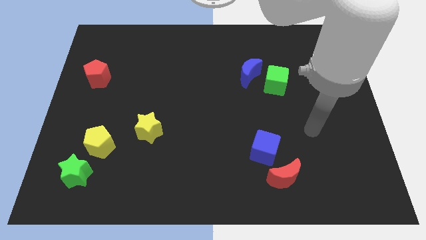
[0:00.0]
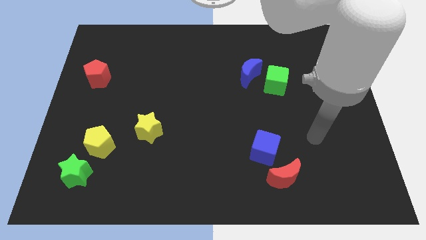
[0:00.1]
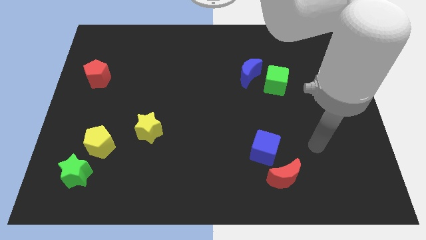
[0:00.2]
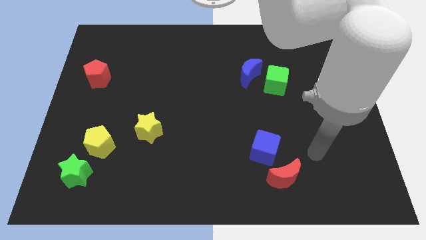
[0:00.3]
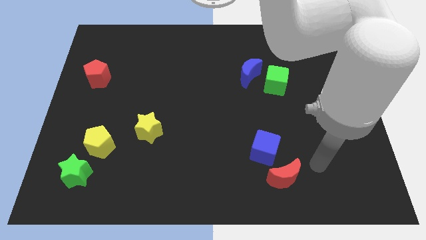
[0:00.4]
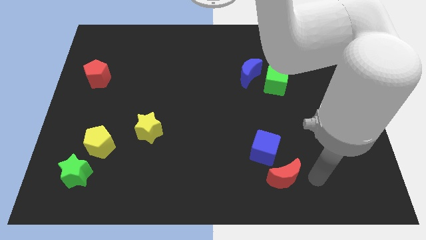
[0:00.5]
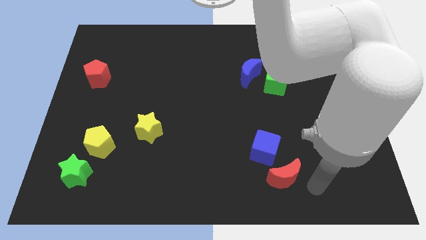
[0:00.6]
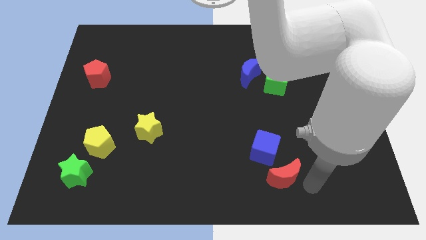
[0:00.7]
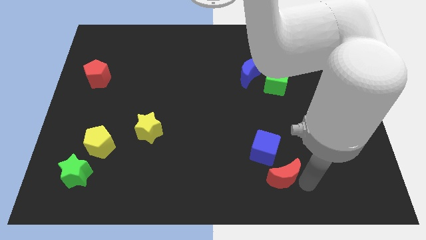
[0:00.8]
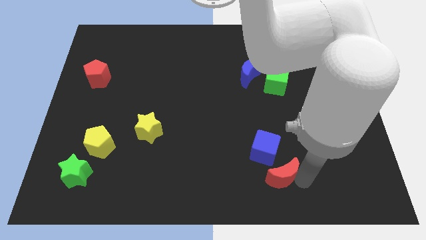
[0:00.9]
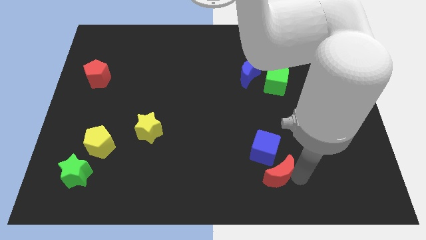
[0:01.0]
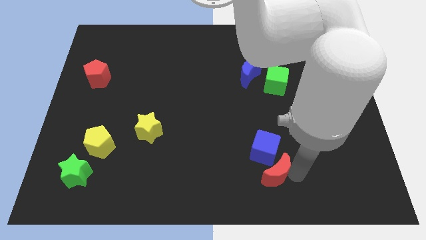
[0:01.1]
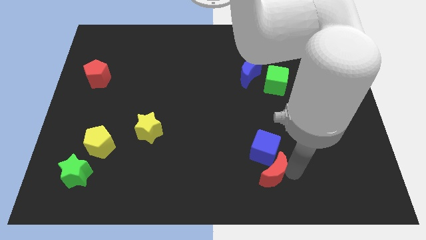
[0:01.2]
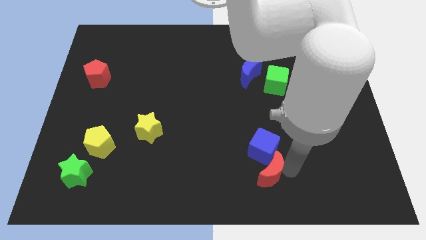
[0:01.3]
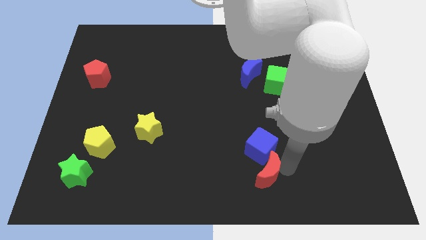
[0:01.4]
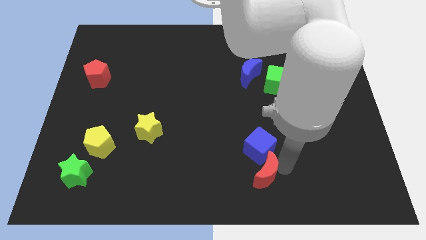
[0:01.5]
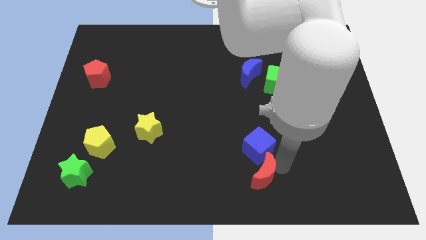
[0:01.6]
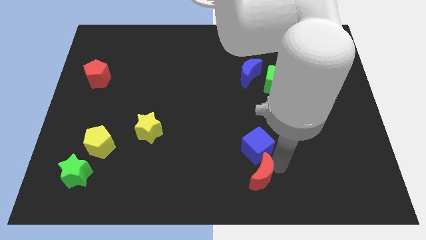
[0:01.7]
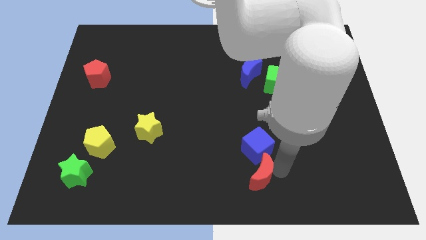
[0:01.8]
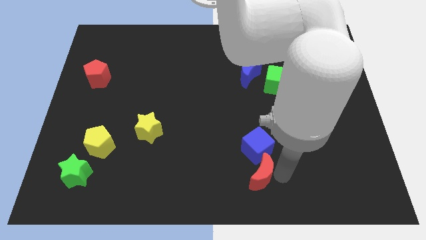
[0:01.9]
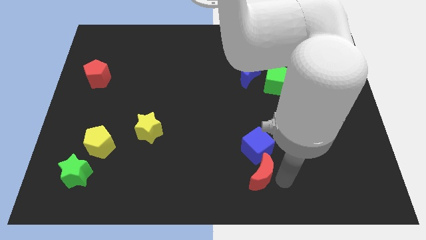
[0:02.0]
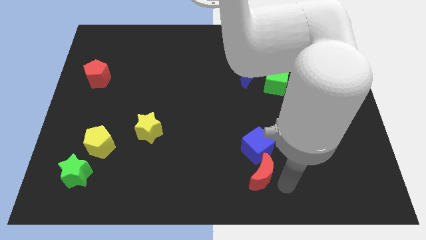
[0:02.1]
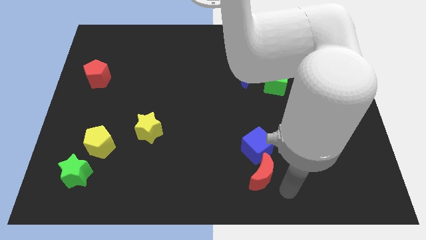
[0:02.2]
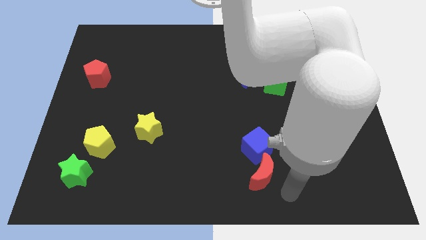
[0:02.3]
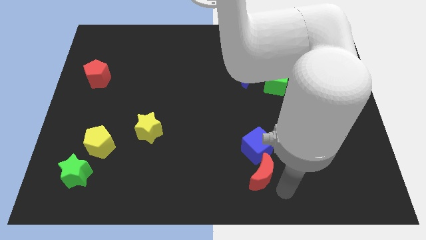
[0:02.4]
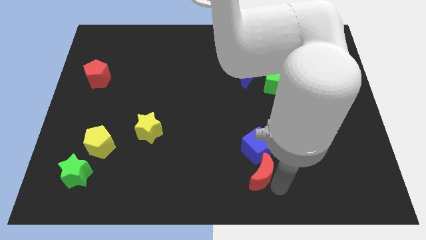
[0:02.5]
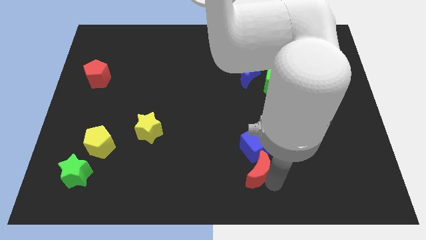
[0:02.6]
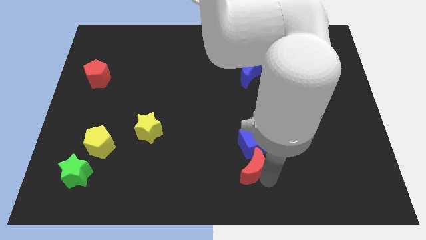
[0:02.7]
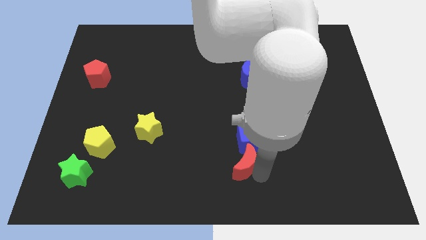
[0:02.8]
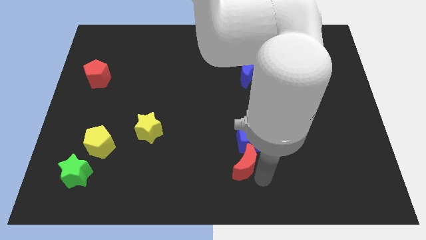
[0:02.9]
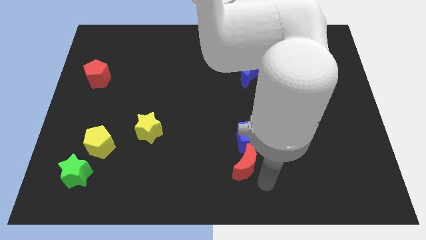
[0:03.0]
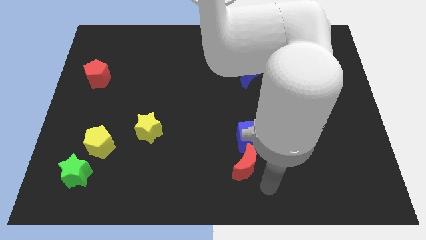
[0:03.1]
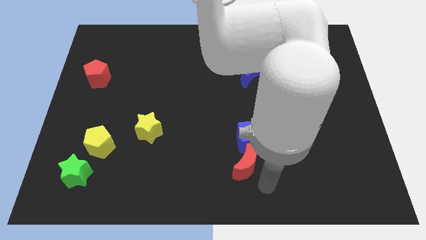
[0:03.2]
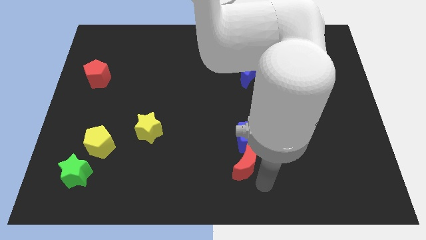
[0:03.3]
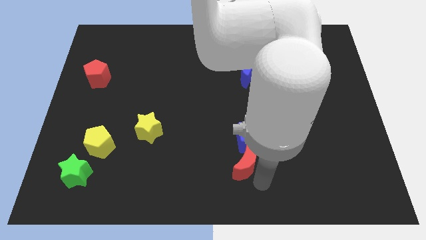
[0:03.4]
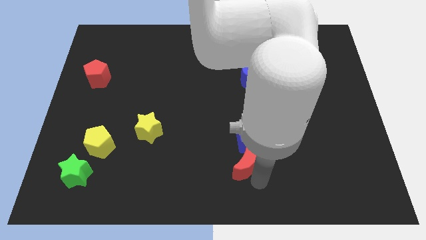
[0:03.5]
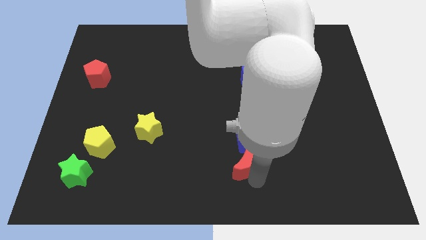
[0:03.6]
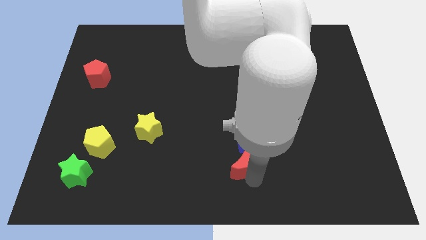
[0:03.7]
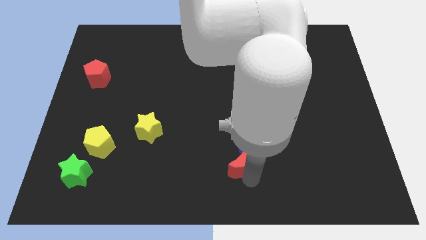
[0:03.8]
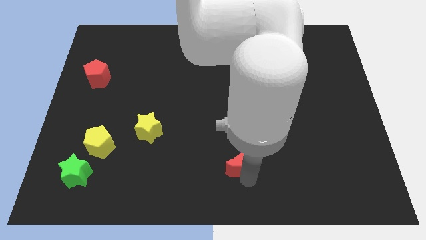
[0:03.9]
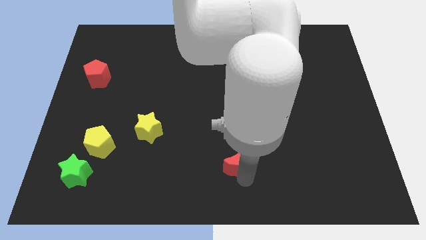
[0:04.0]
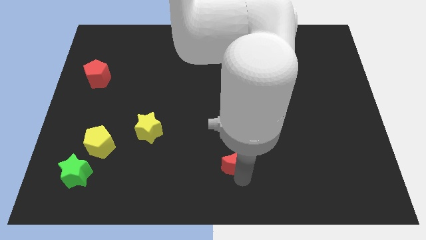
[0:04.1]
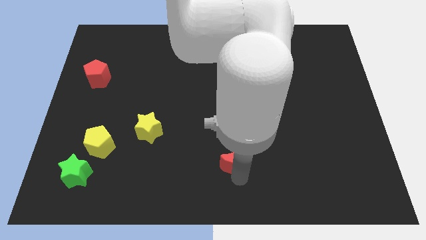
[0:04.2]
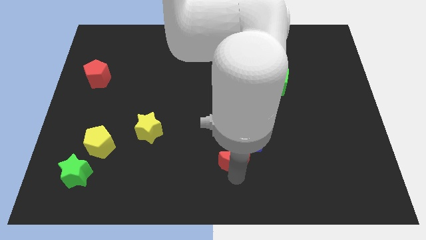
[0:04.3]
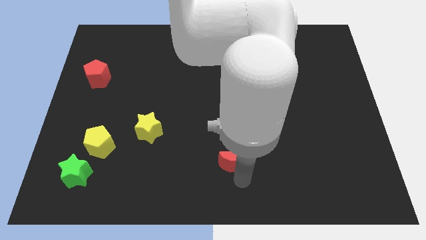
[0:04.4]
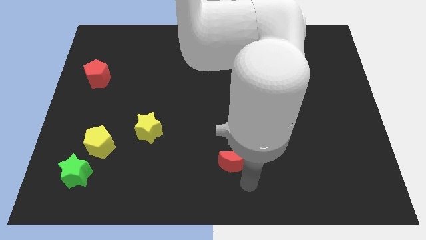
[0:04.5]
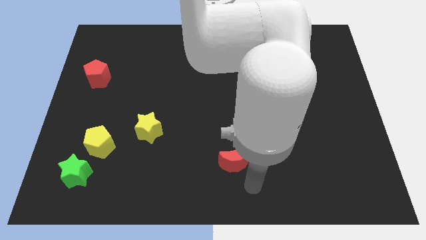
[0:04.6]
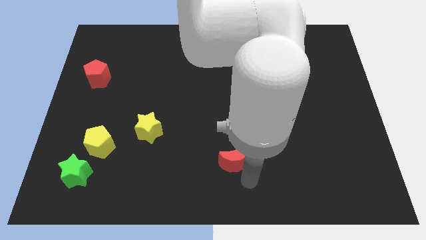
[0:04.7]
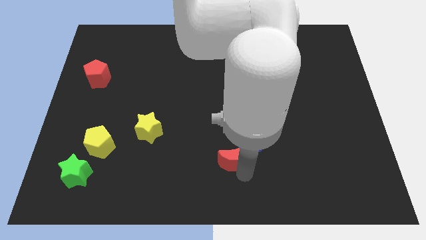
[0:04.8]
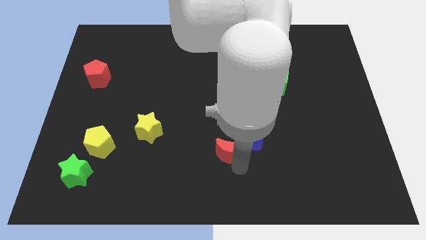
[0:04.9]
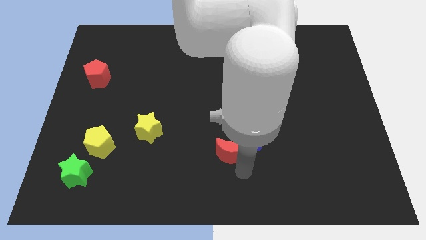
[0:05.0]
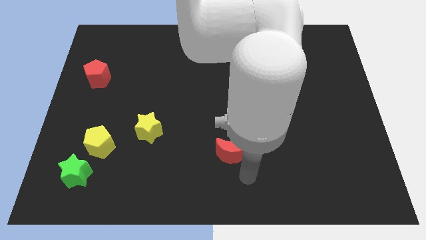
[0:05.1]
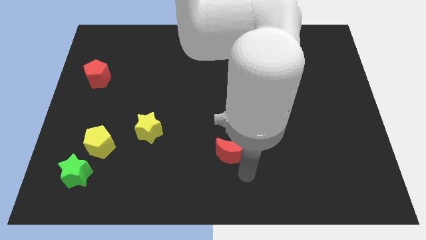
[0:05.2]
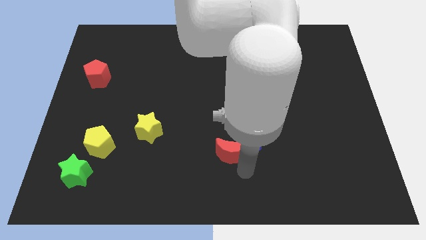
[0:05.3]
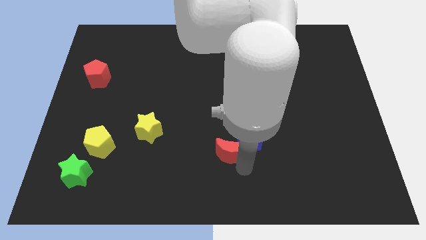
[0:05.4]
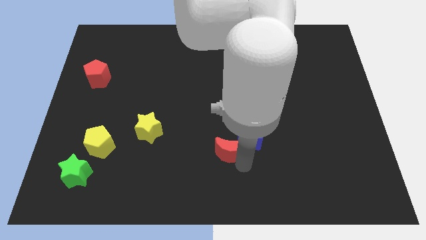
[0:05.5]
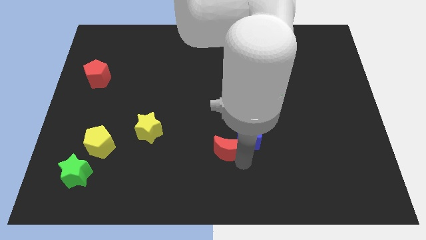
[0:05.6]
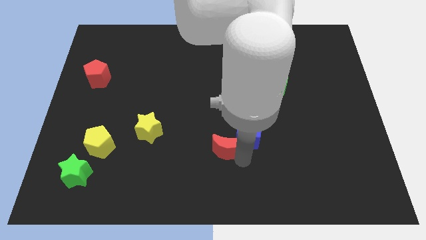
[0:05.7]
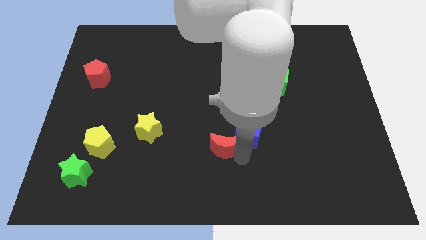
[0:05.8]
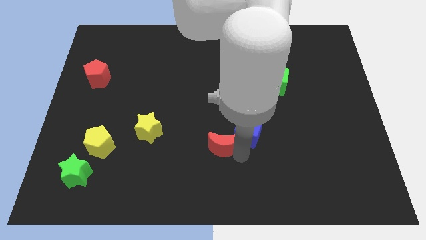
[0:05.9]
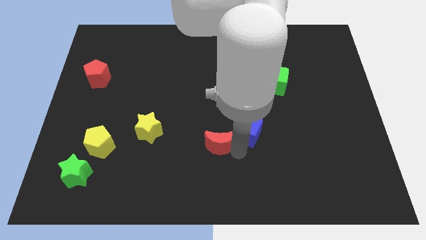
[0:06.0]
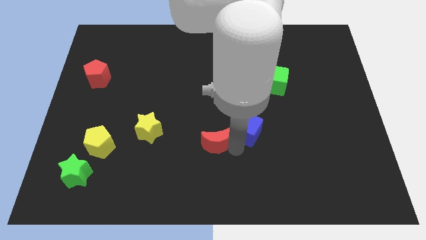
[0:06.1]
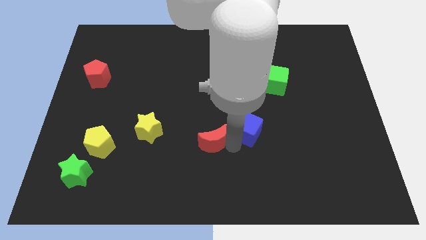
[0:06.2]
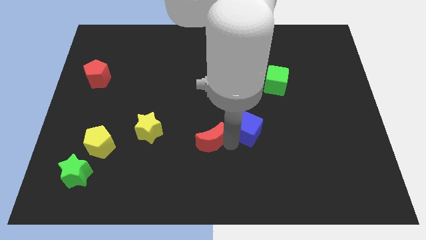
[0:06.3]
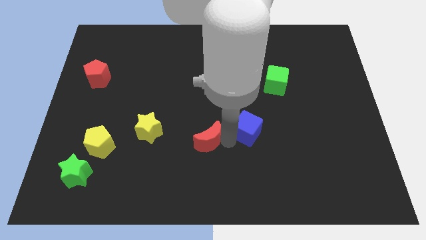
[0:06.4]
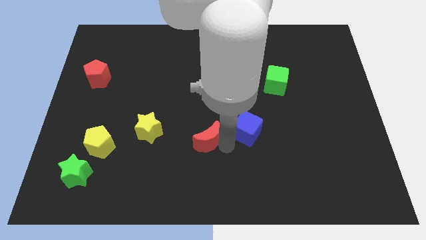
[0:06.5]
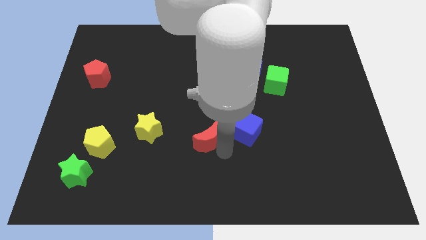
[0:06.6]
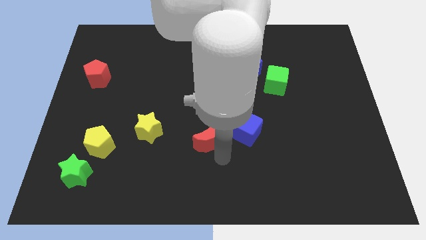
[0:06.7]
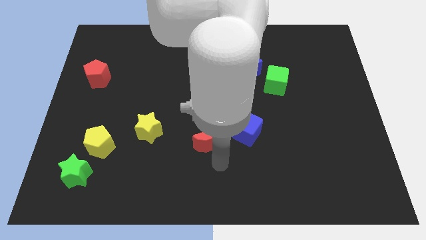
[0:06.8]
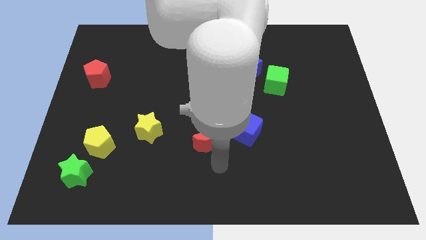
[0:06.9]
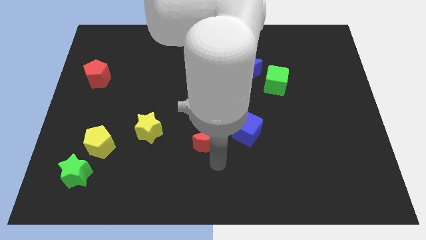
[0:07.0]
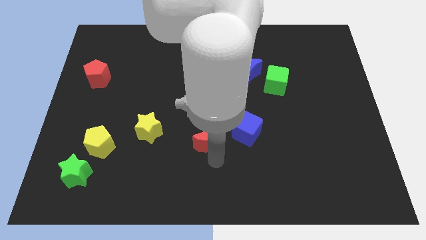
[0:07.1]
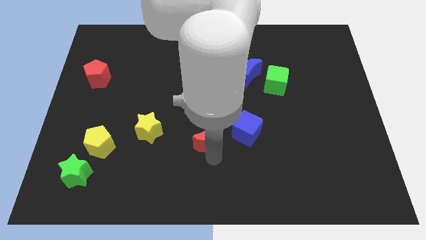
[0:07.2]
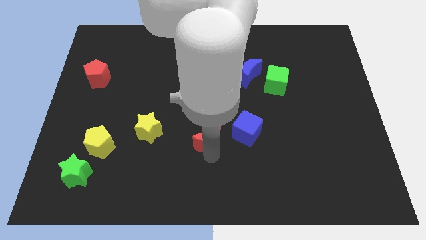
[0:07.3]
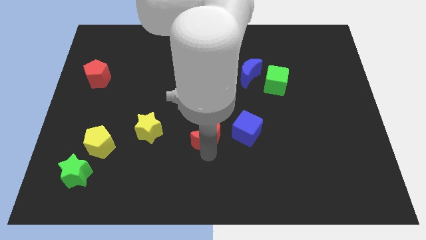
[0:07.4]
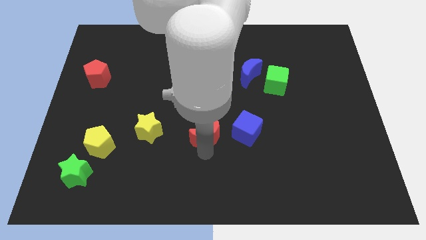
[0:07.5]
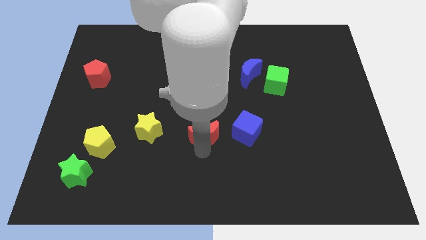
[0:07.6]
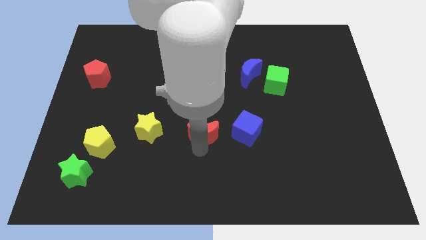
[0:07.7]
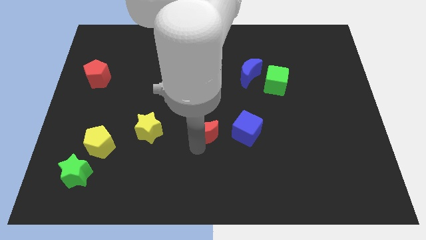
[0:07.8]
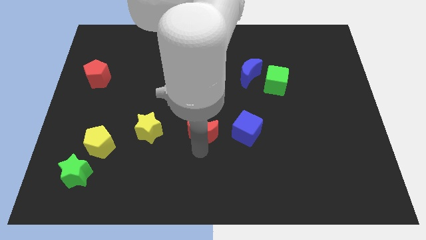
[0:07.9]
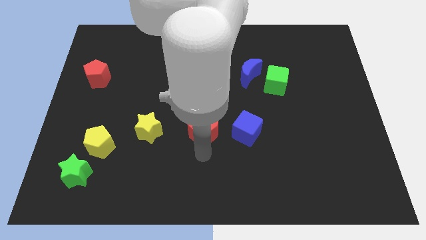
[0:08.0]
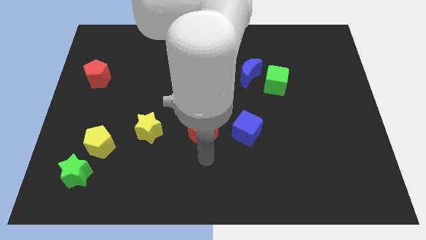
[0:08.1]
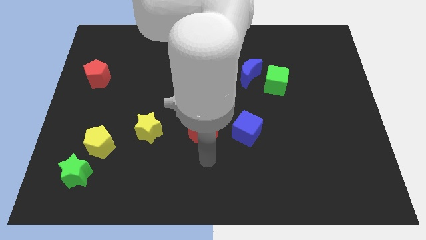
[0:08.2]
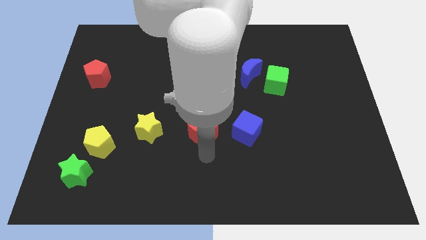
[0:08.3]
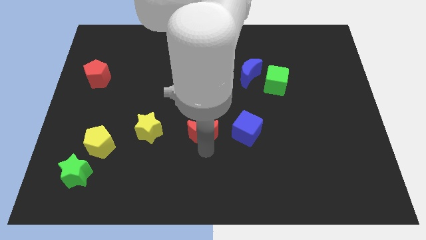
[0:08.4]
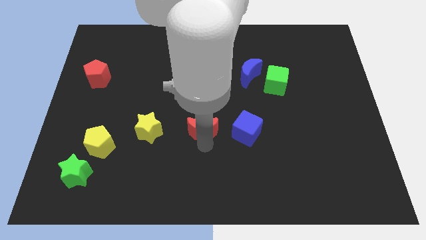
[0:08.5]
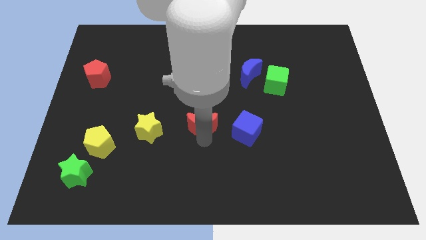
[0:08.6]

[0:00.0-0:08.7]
slide the red moon upwards and then to the left
